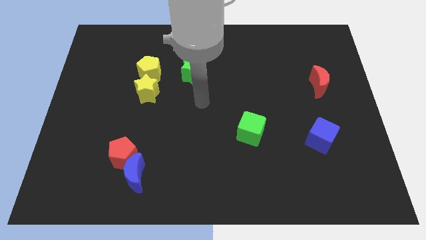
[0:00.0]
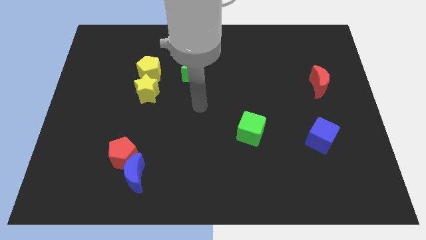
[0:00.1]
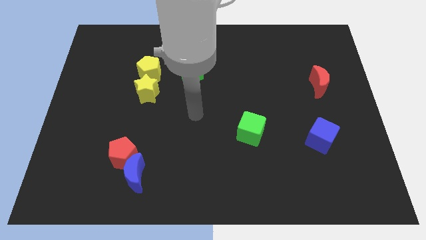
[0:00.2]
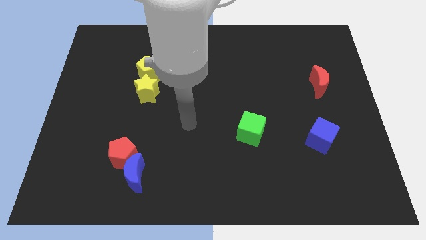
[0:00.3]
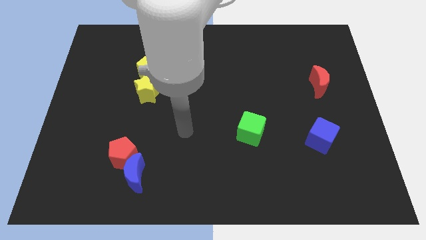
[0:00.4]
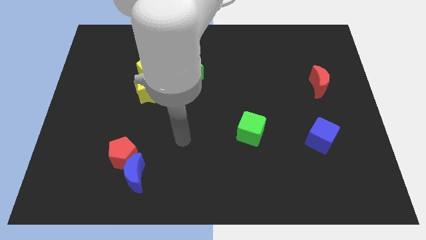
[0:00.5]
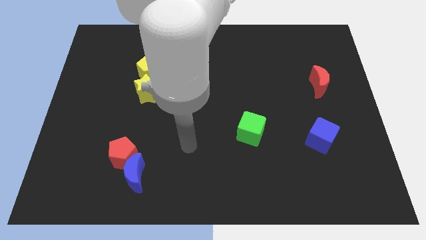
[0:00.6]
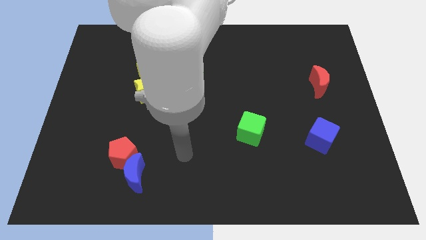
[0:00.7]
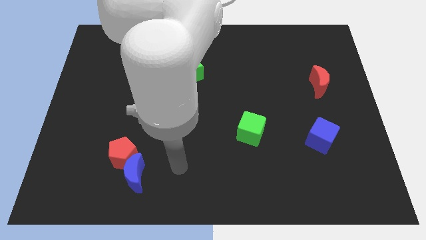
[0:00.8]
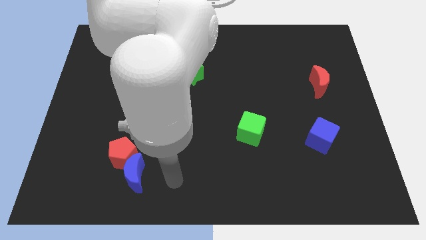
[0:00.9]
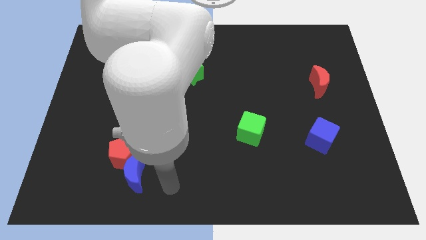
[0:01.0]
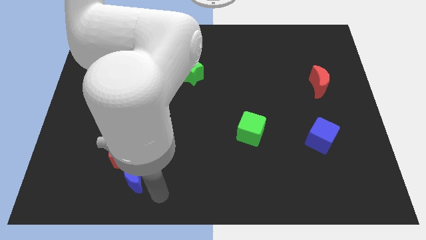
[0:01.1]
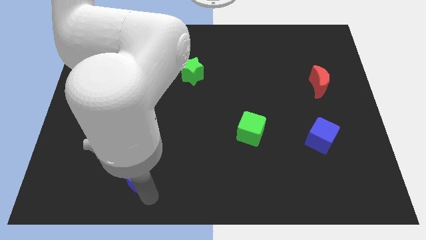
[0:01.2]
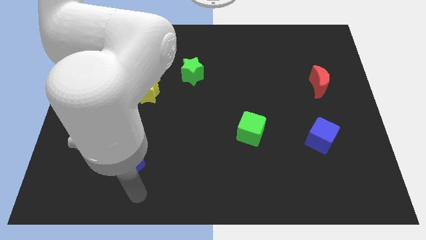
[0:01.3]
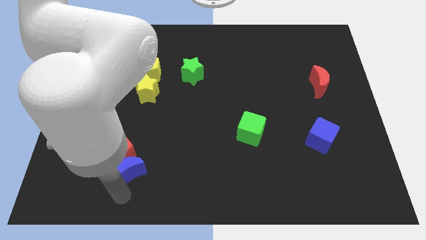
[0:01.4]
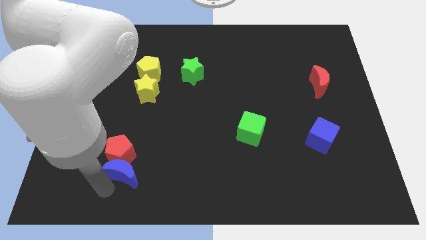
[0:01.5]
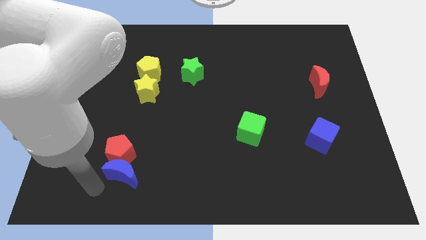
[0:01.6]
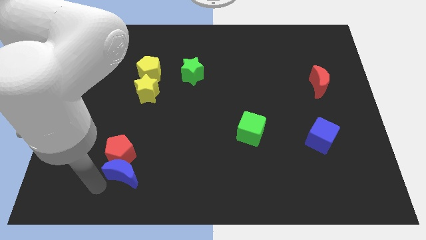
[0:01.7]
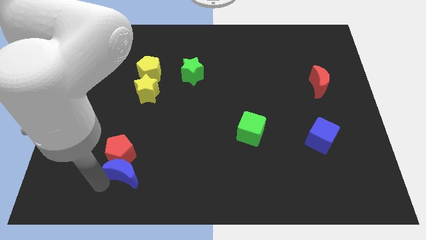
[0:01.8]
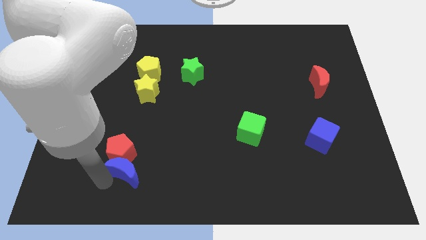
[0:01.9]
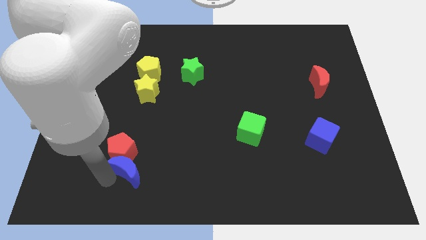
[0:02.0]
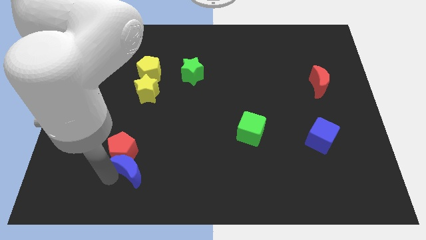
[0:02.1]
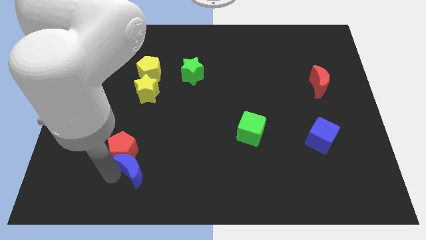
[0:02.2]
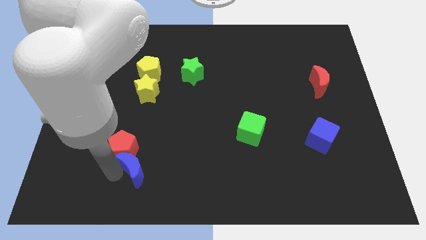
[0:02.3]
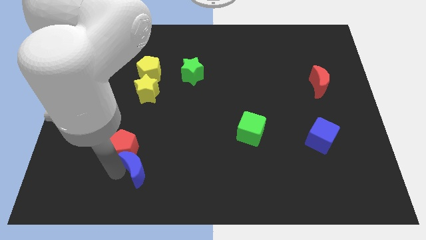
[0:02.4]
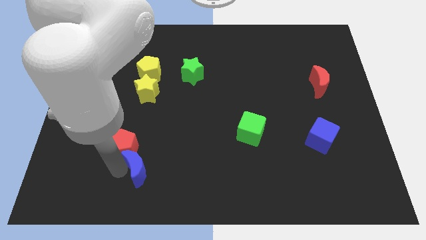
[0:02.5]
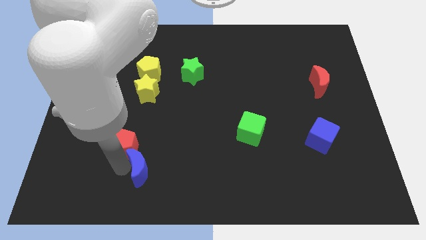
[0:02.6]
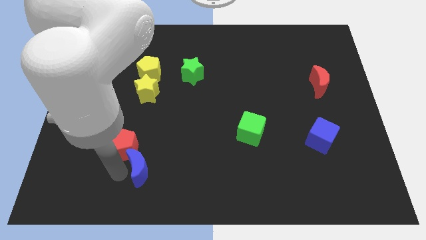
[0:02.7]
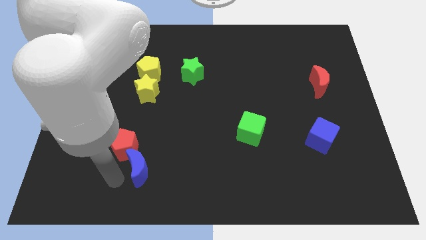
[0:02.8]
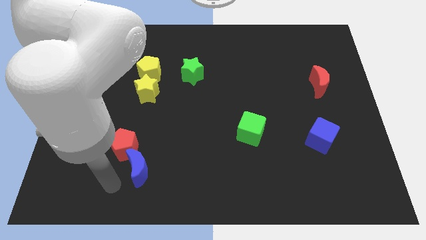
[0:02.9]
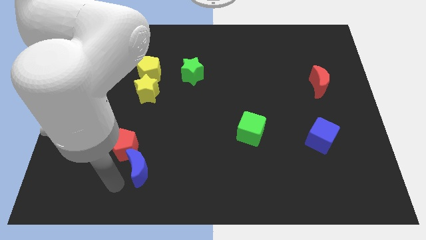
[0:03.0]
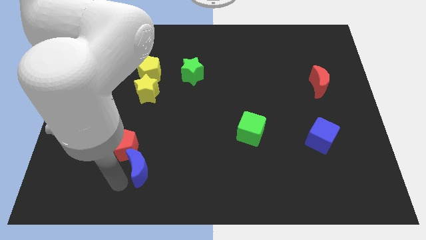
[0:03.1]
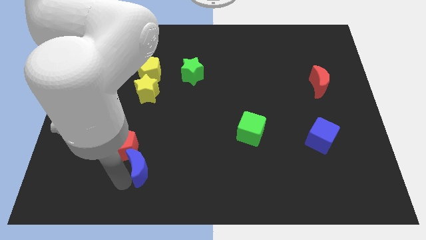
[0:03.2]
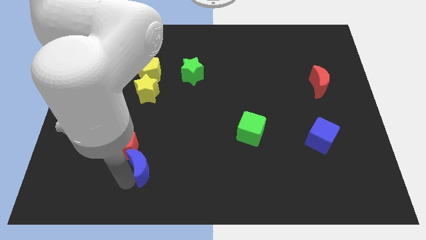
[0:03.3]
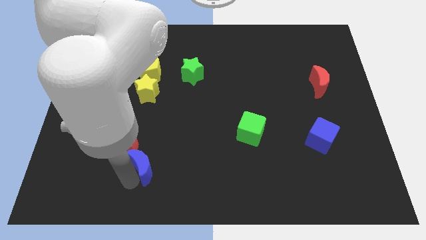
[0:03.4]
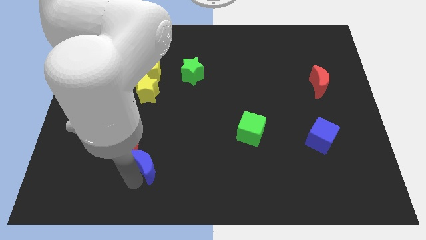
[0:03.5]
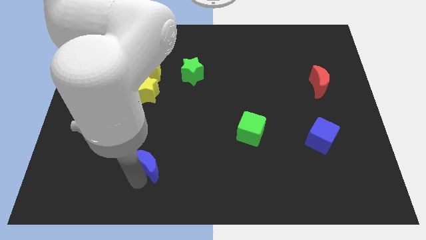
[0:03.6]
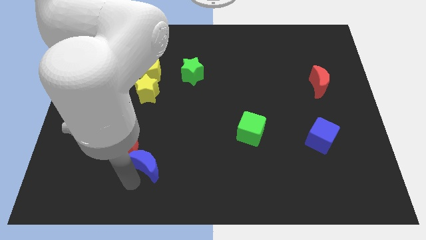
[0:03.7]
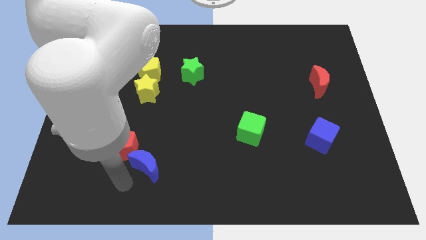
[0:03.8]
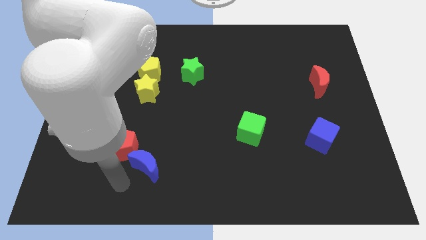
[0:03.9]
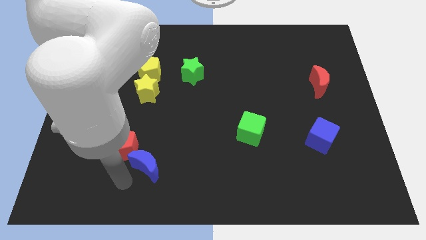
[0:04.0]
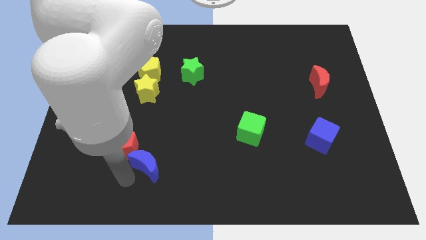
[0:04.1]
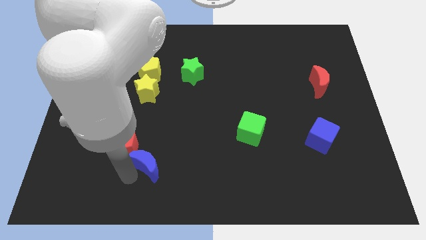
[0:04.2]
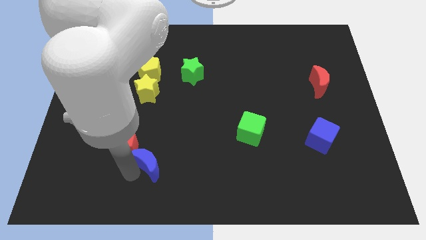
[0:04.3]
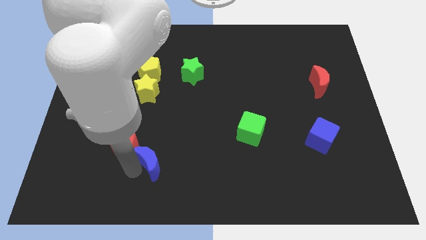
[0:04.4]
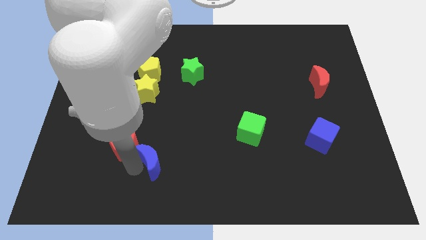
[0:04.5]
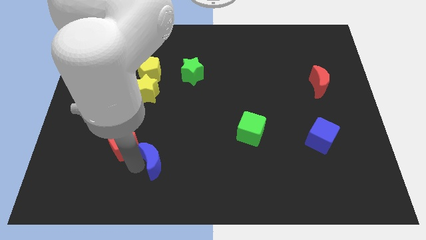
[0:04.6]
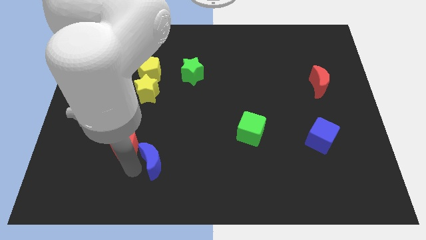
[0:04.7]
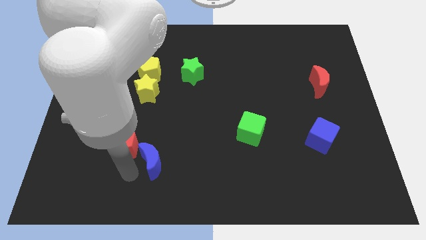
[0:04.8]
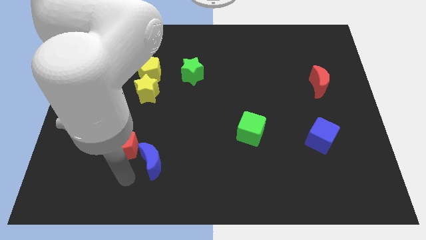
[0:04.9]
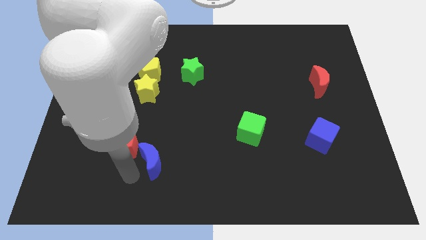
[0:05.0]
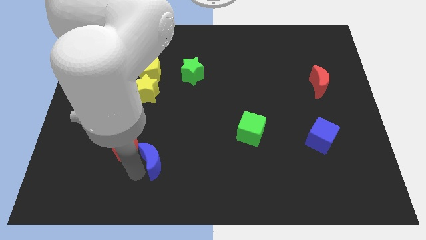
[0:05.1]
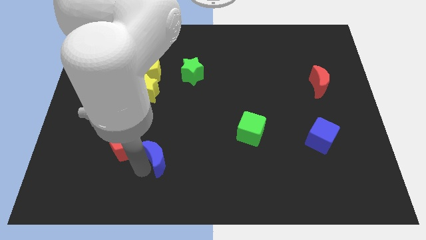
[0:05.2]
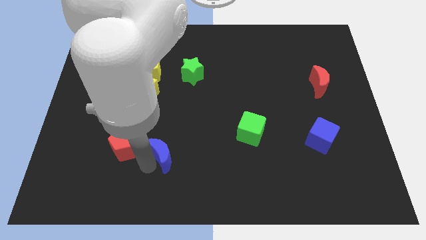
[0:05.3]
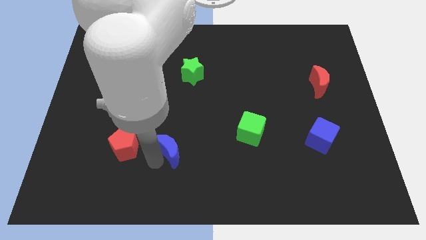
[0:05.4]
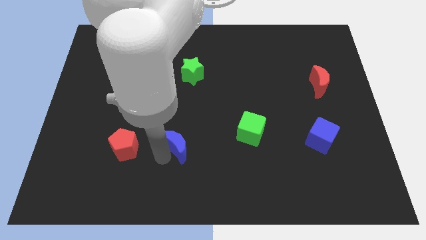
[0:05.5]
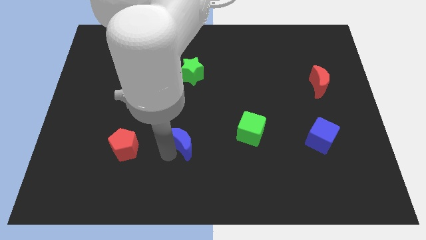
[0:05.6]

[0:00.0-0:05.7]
move the blue moon to the left of the green cube

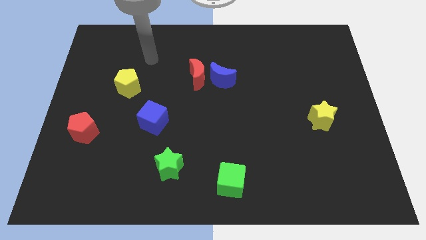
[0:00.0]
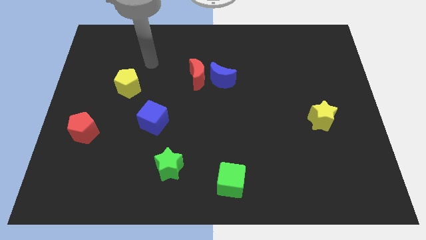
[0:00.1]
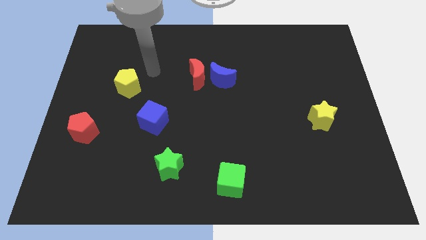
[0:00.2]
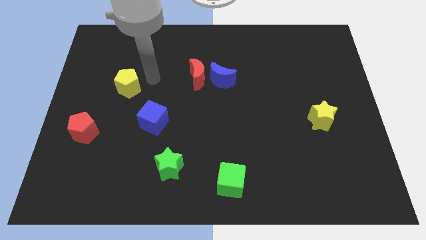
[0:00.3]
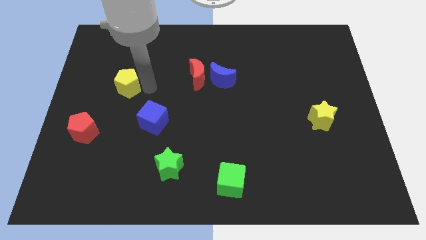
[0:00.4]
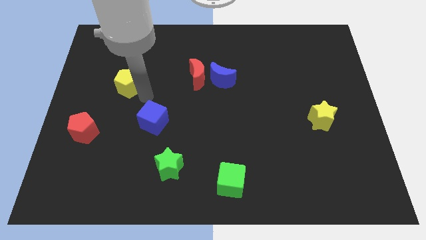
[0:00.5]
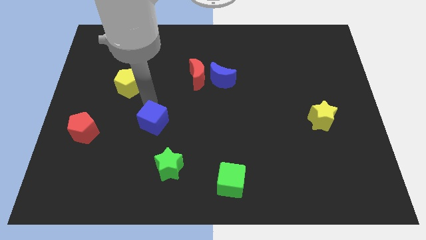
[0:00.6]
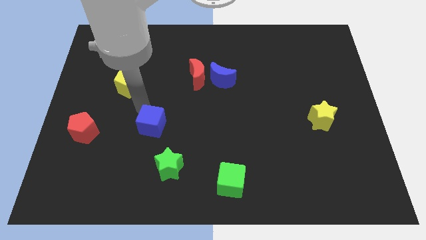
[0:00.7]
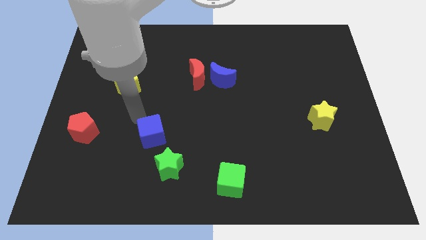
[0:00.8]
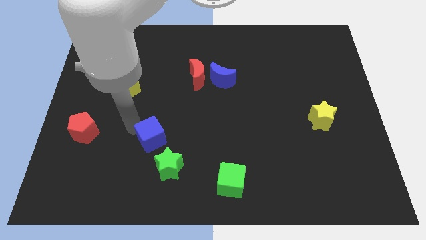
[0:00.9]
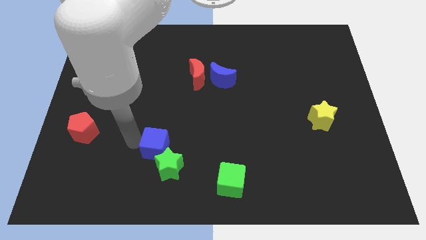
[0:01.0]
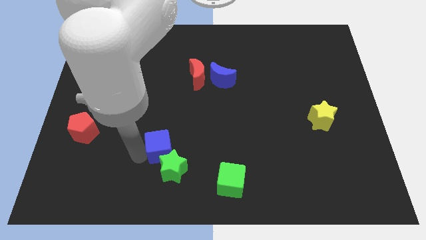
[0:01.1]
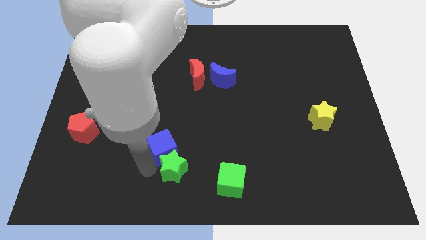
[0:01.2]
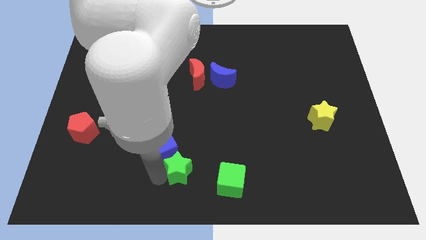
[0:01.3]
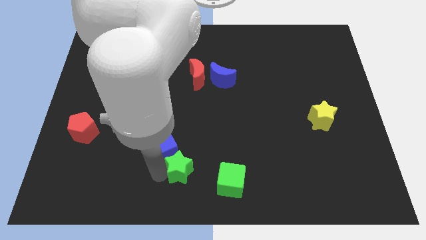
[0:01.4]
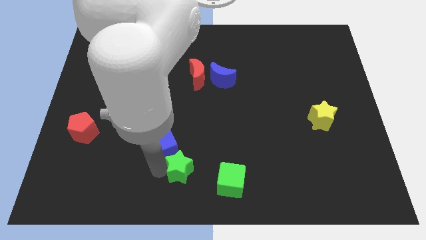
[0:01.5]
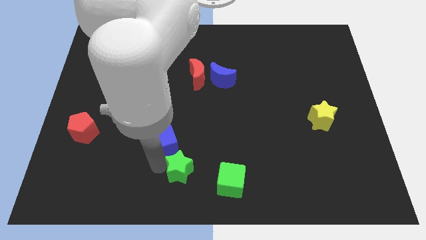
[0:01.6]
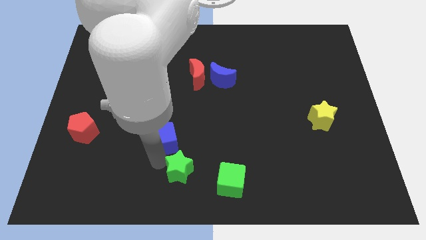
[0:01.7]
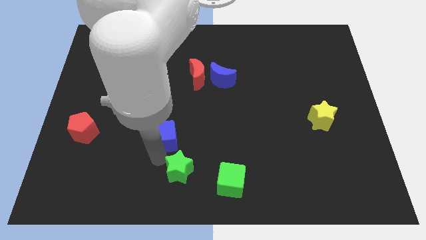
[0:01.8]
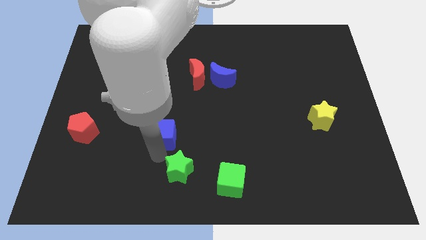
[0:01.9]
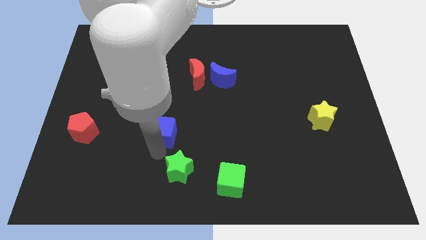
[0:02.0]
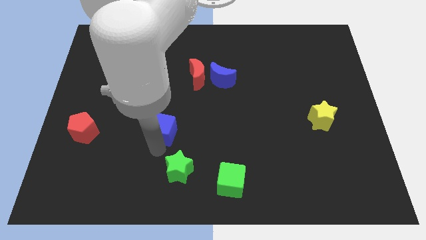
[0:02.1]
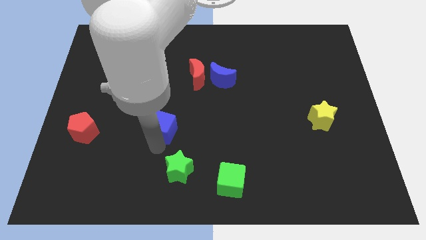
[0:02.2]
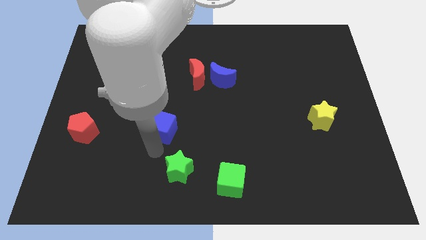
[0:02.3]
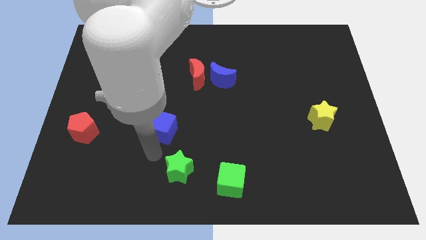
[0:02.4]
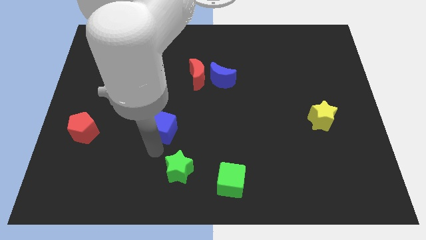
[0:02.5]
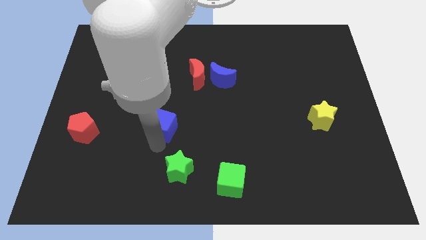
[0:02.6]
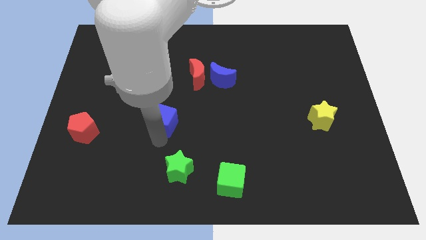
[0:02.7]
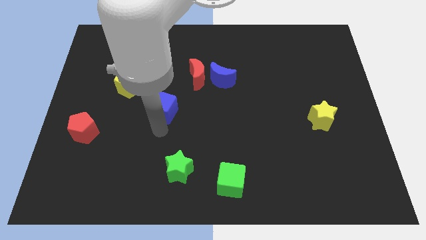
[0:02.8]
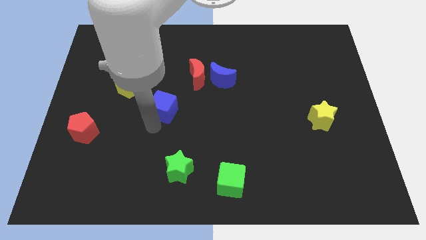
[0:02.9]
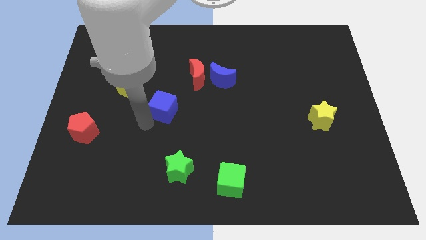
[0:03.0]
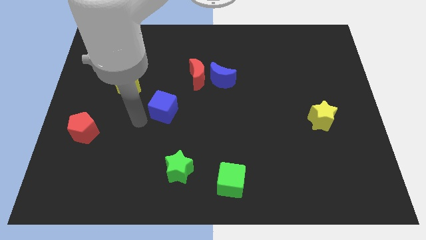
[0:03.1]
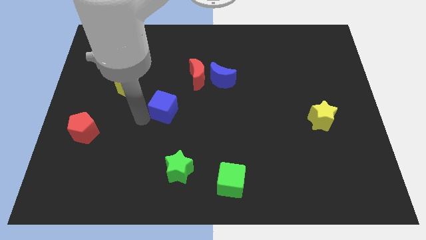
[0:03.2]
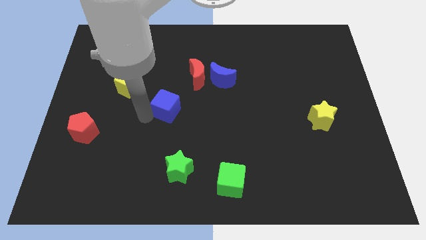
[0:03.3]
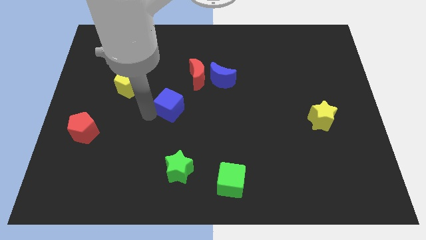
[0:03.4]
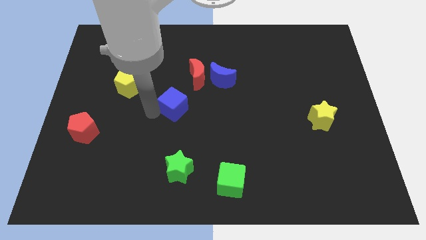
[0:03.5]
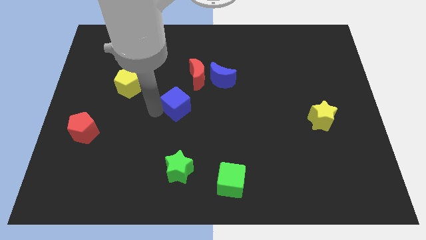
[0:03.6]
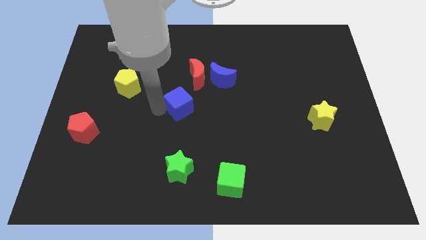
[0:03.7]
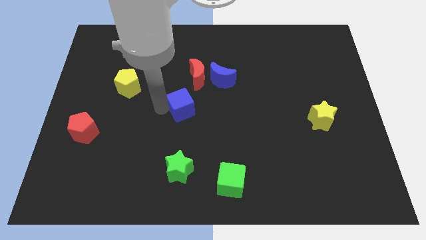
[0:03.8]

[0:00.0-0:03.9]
put the blue cube to the bottom left of the blue moon
